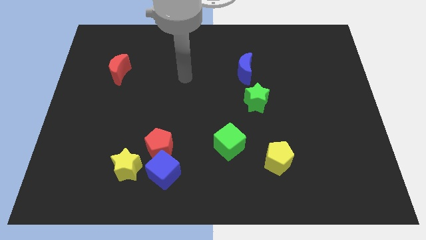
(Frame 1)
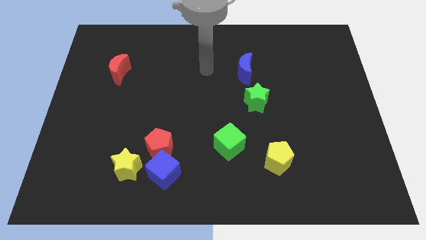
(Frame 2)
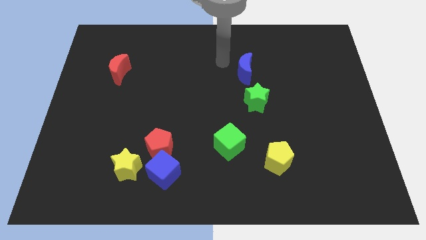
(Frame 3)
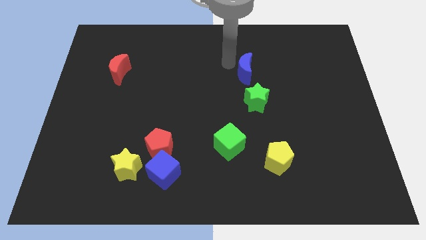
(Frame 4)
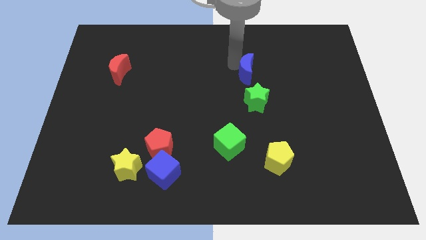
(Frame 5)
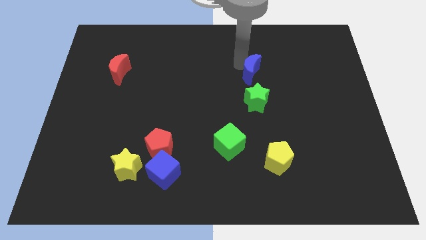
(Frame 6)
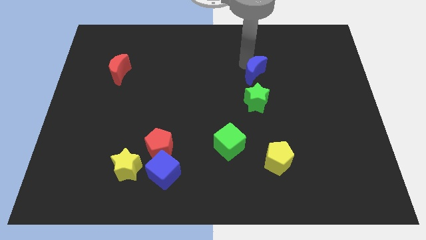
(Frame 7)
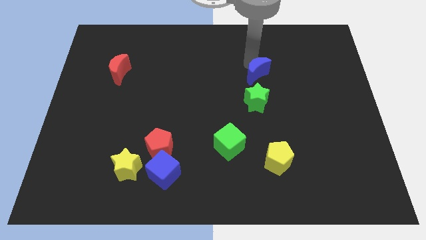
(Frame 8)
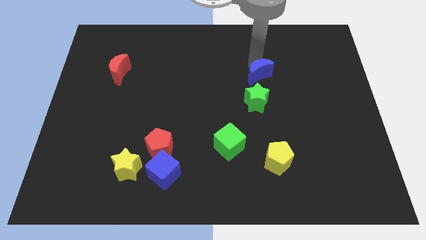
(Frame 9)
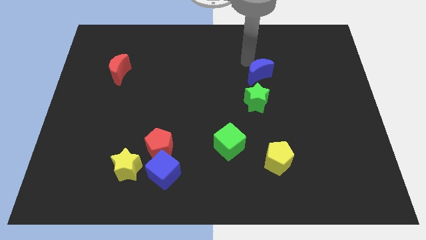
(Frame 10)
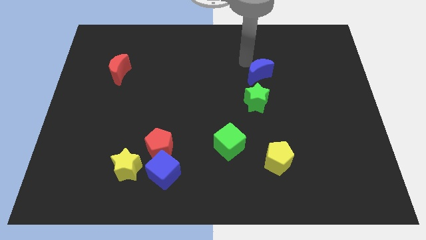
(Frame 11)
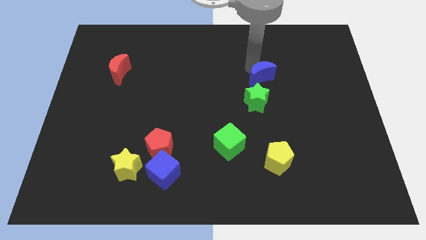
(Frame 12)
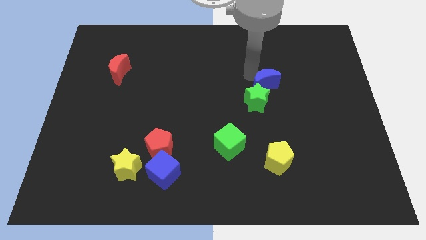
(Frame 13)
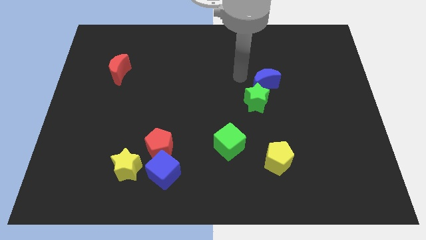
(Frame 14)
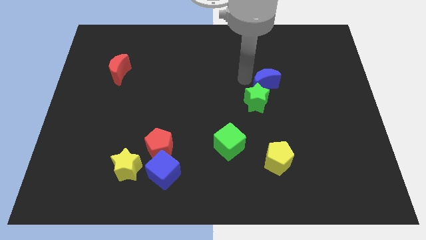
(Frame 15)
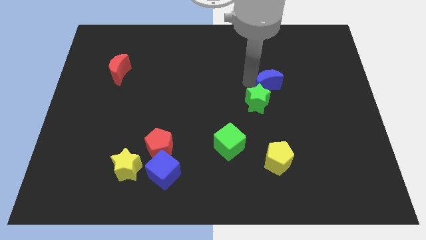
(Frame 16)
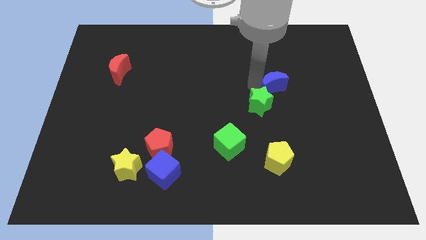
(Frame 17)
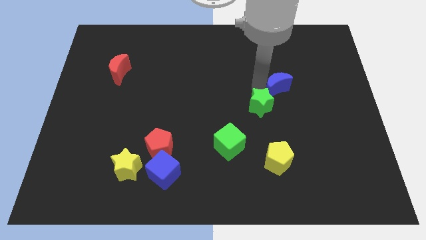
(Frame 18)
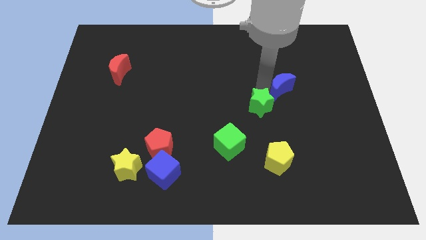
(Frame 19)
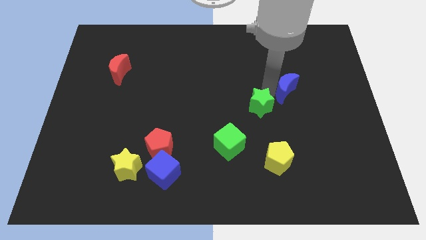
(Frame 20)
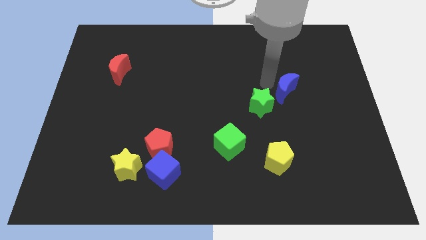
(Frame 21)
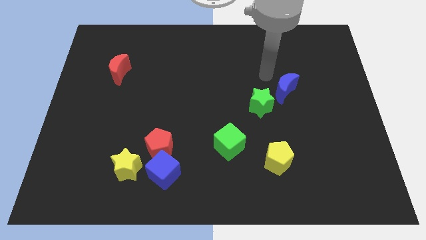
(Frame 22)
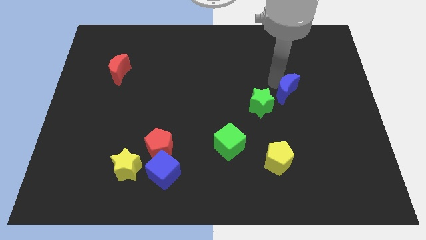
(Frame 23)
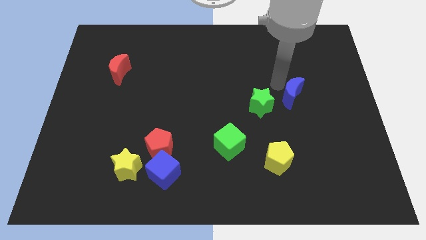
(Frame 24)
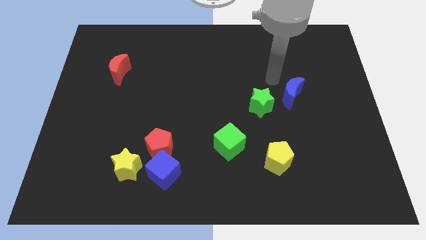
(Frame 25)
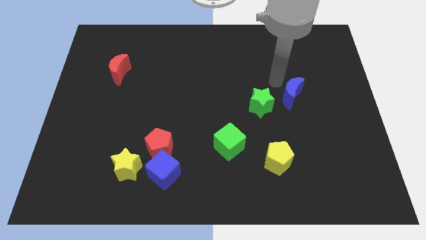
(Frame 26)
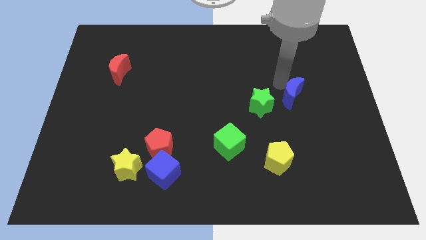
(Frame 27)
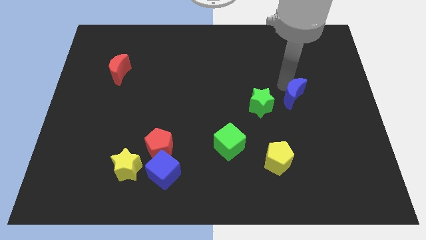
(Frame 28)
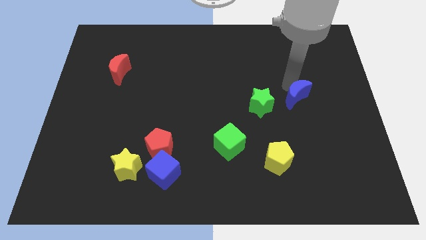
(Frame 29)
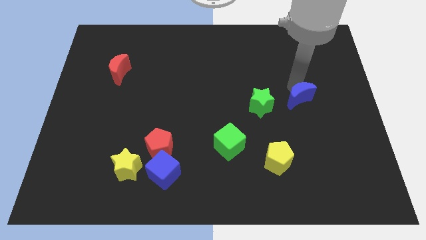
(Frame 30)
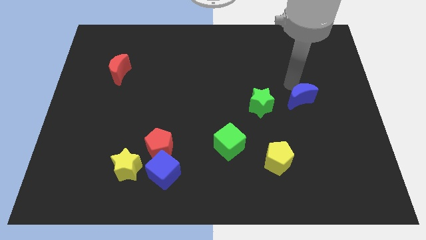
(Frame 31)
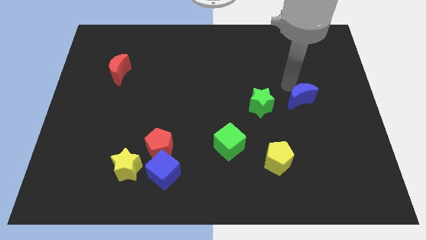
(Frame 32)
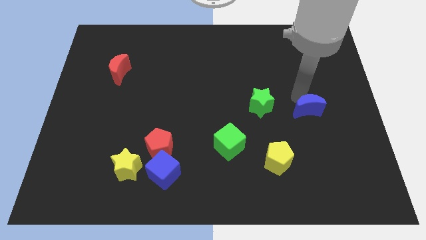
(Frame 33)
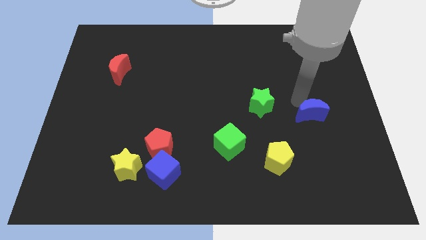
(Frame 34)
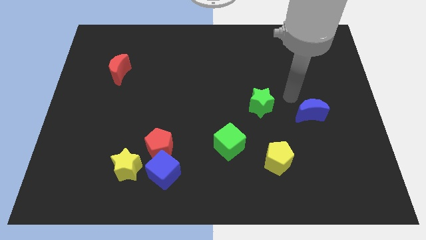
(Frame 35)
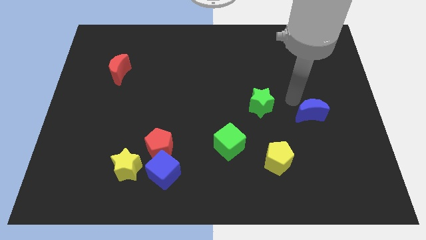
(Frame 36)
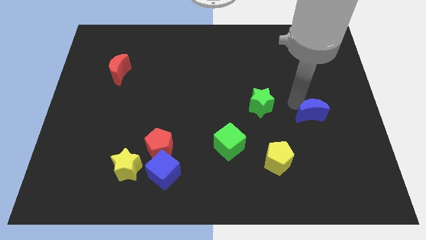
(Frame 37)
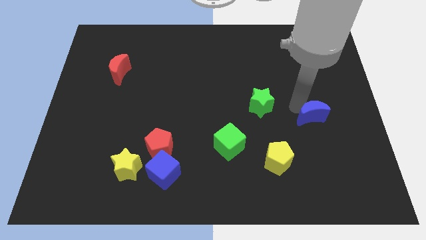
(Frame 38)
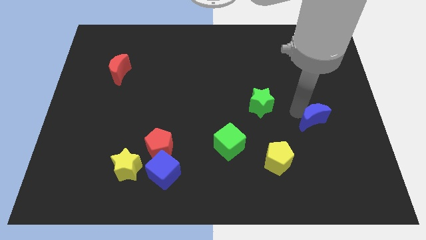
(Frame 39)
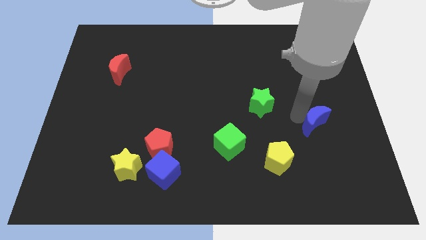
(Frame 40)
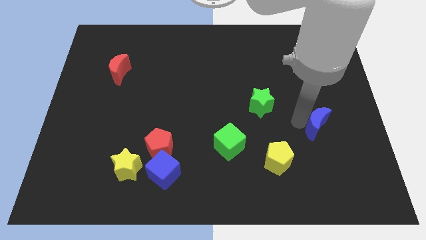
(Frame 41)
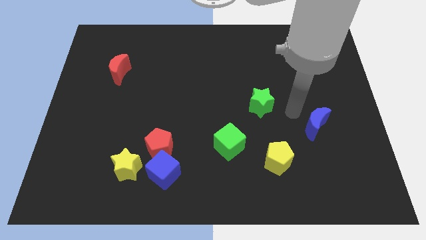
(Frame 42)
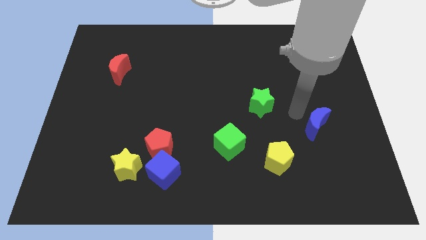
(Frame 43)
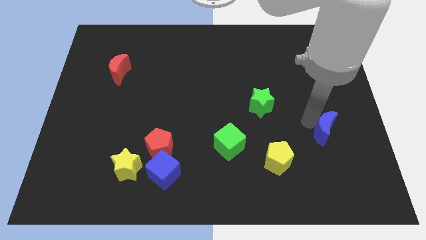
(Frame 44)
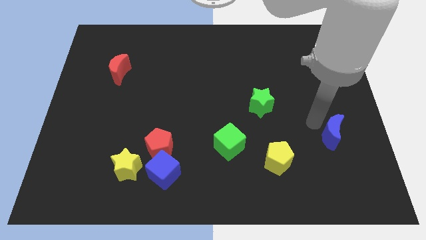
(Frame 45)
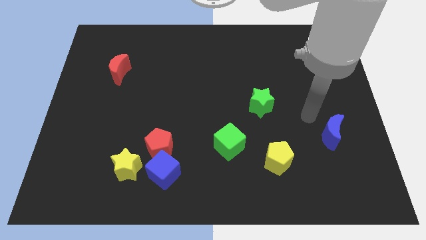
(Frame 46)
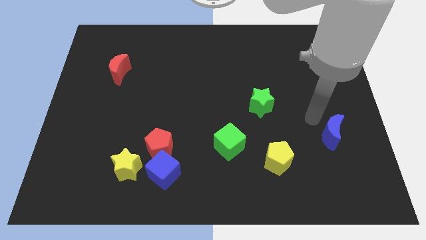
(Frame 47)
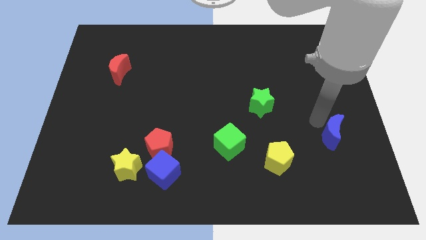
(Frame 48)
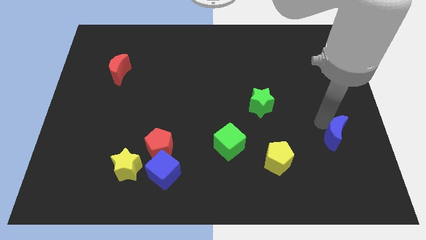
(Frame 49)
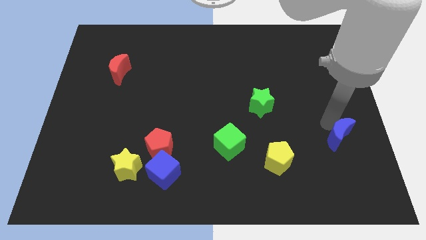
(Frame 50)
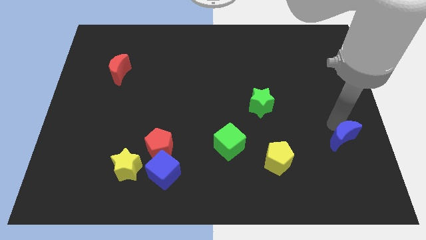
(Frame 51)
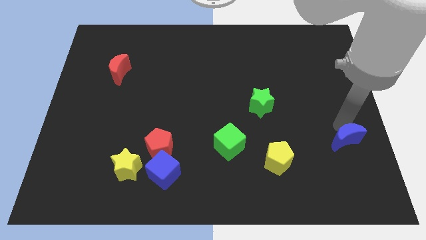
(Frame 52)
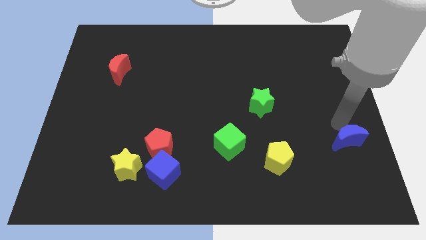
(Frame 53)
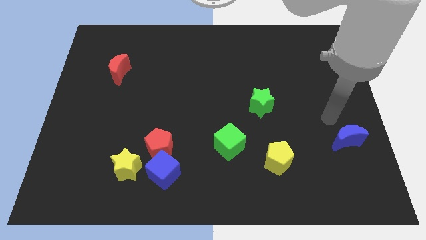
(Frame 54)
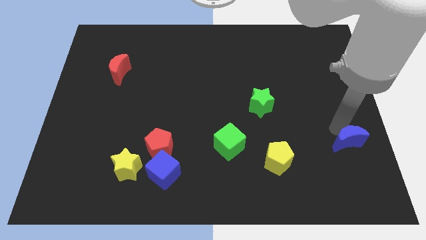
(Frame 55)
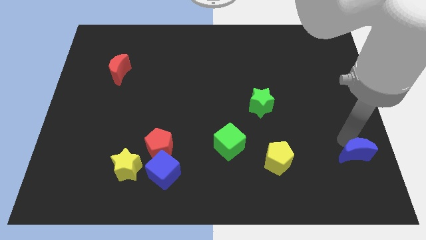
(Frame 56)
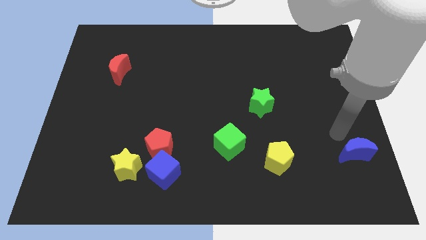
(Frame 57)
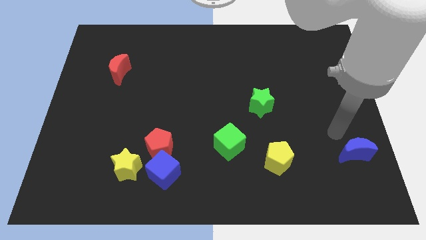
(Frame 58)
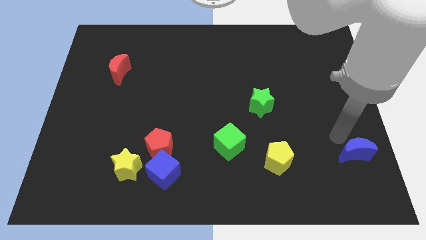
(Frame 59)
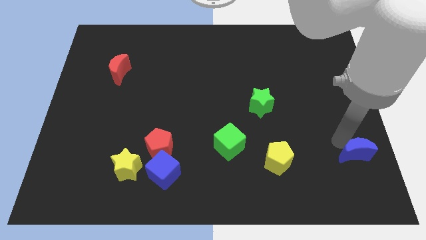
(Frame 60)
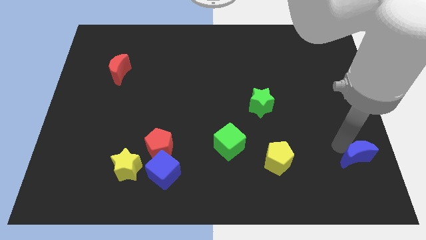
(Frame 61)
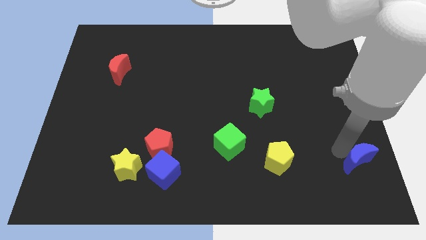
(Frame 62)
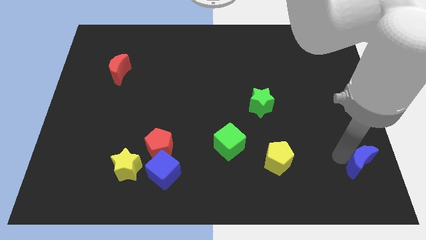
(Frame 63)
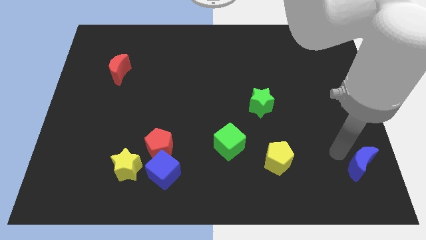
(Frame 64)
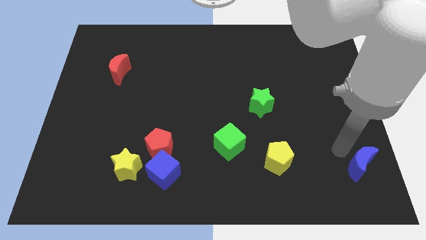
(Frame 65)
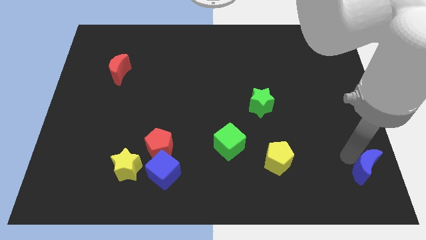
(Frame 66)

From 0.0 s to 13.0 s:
push the blue moon to the bottom right of the board
